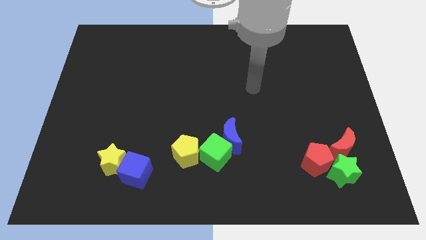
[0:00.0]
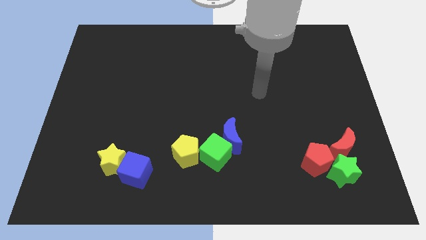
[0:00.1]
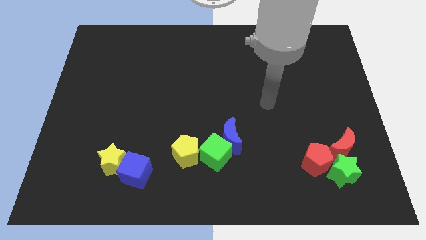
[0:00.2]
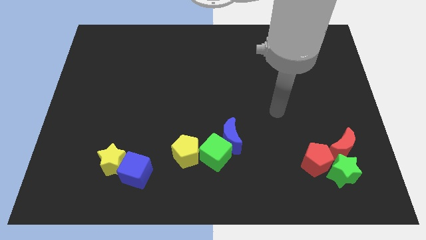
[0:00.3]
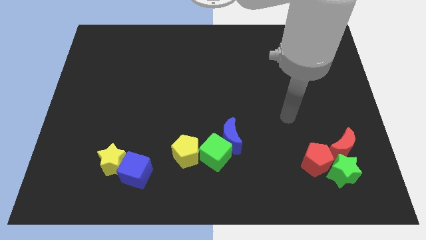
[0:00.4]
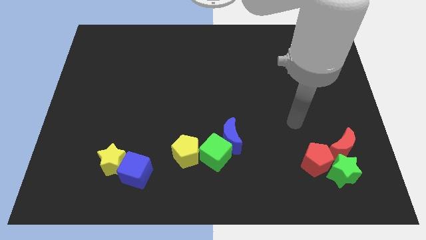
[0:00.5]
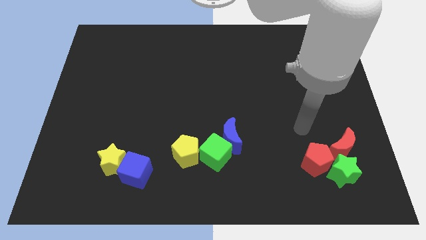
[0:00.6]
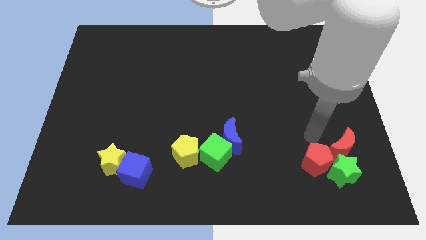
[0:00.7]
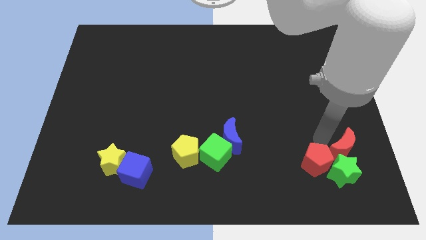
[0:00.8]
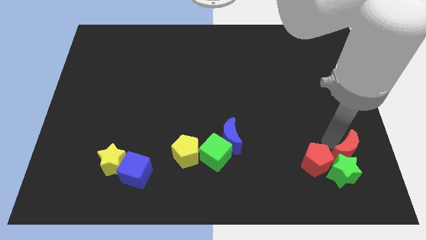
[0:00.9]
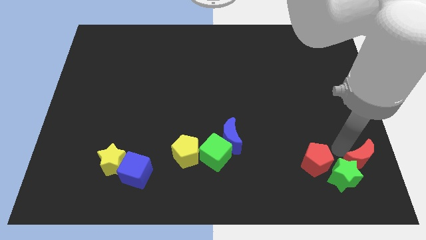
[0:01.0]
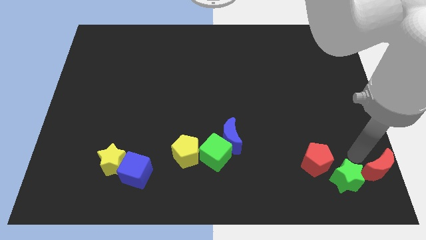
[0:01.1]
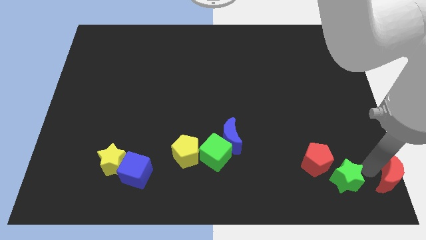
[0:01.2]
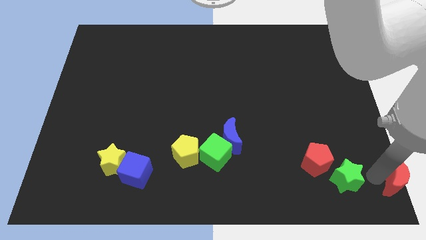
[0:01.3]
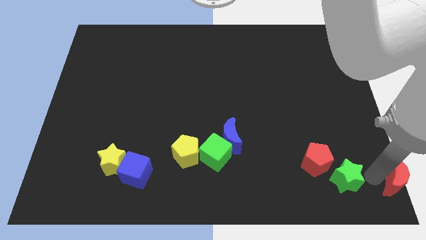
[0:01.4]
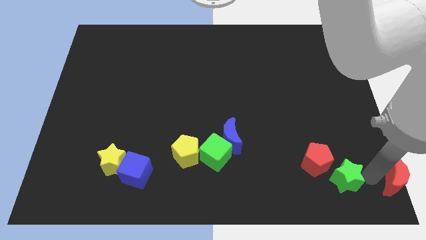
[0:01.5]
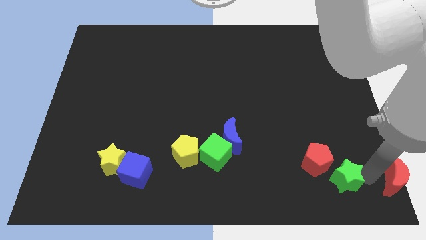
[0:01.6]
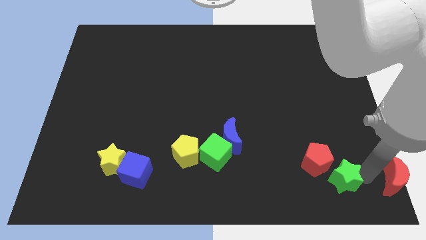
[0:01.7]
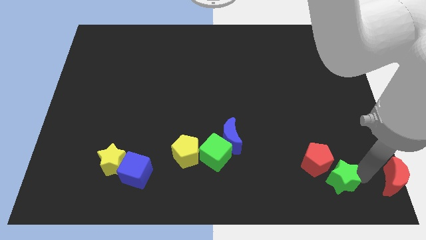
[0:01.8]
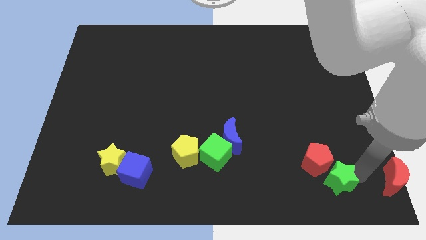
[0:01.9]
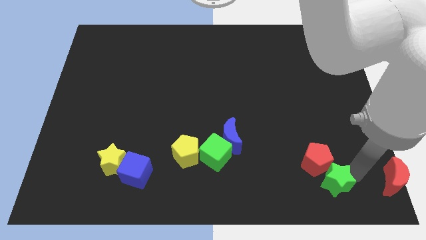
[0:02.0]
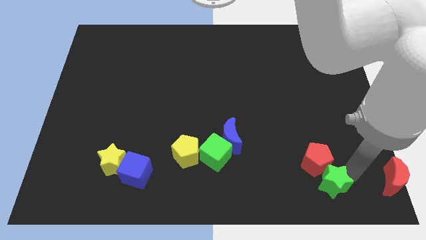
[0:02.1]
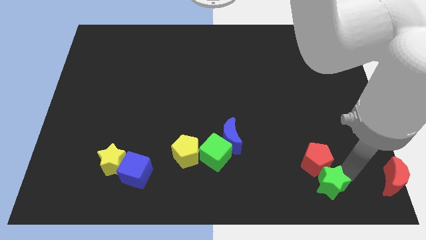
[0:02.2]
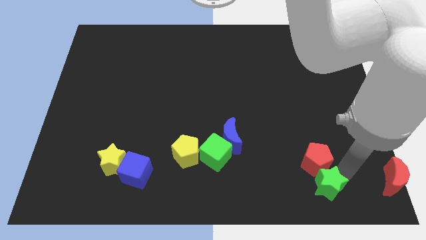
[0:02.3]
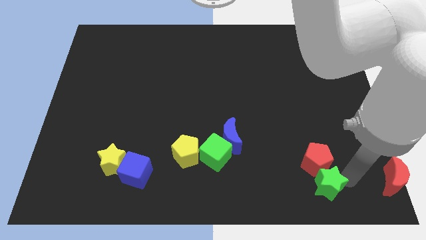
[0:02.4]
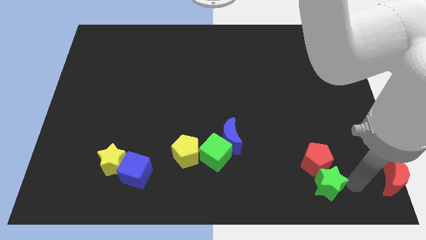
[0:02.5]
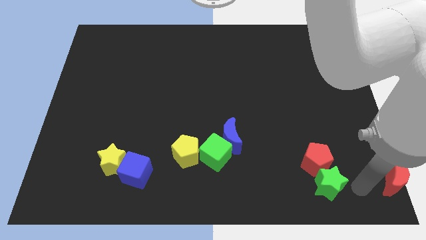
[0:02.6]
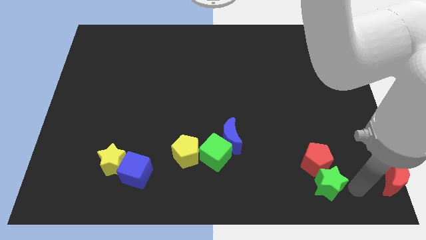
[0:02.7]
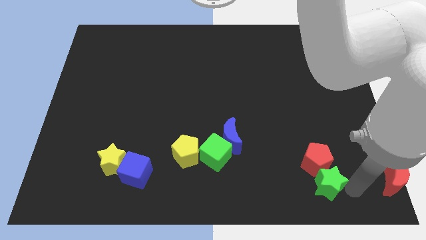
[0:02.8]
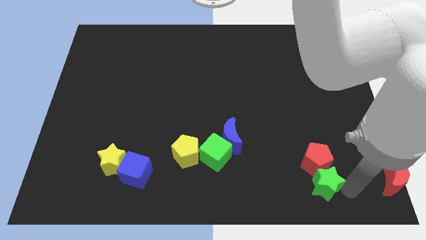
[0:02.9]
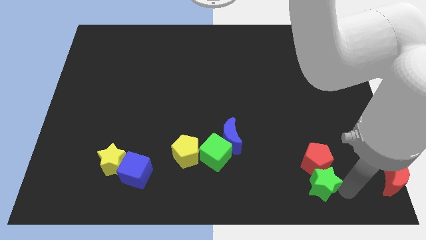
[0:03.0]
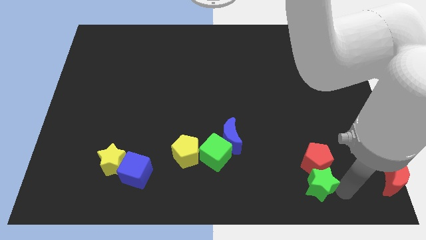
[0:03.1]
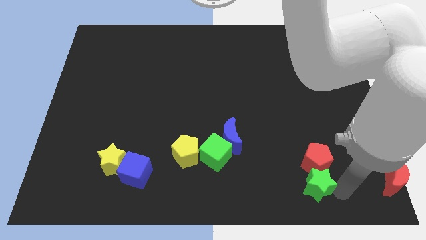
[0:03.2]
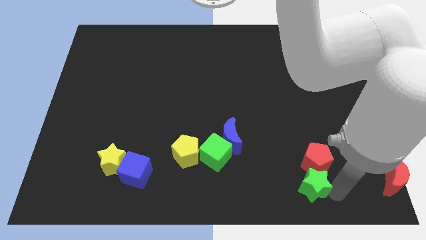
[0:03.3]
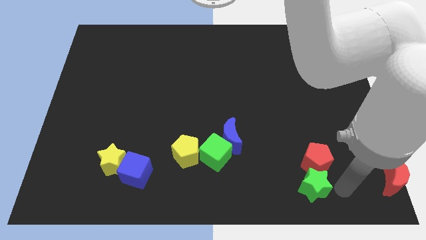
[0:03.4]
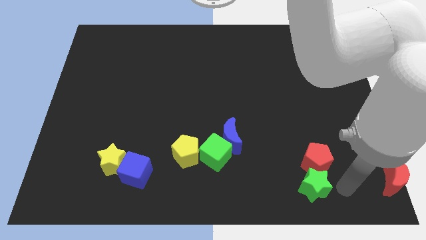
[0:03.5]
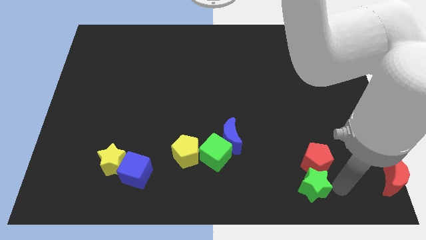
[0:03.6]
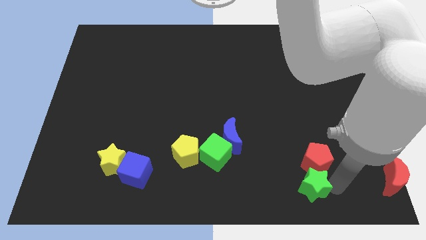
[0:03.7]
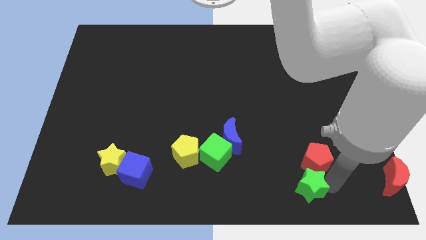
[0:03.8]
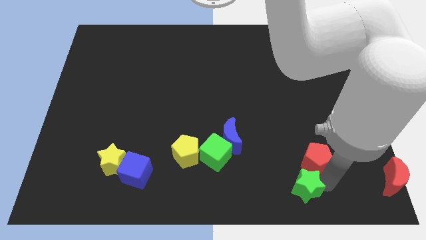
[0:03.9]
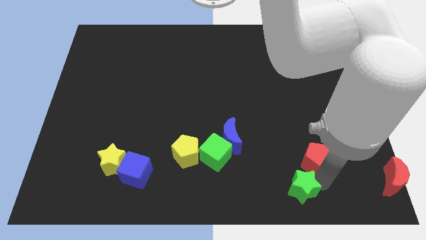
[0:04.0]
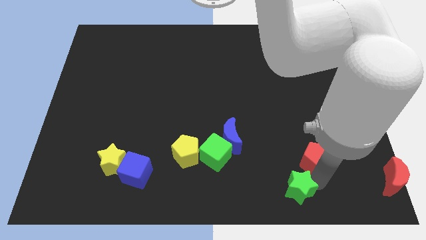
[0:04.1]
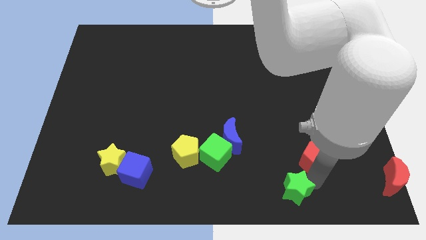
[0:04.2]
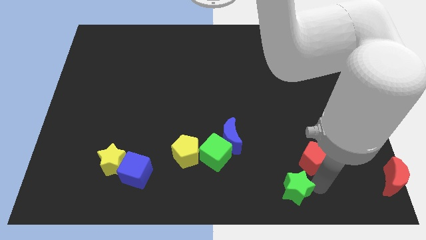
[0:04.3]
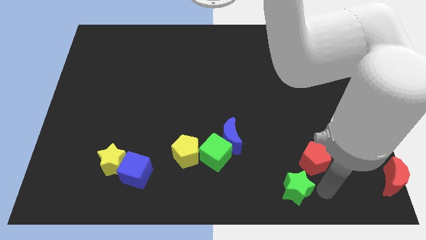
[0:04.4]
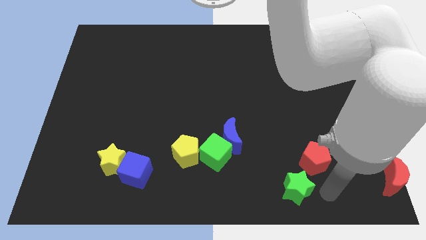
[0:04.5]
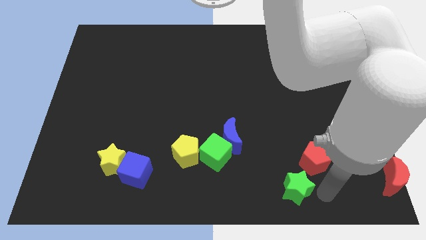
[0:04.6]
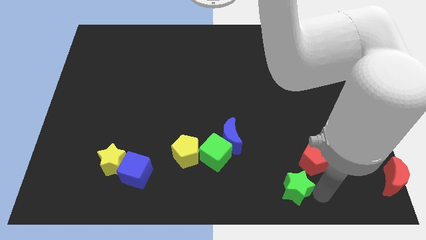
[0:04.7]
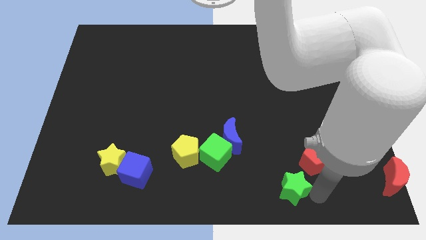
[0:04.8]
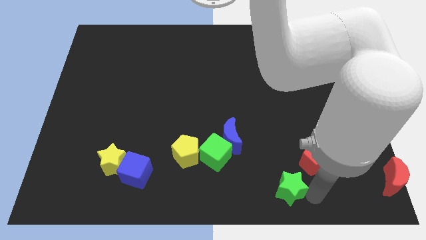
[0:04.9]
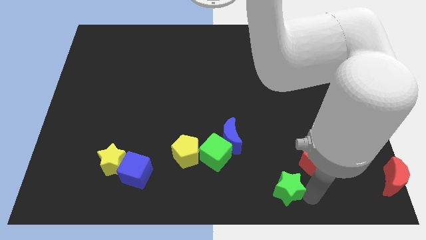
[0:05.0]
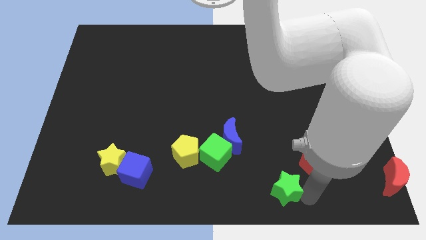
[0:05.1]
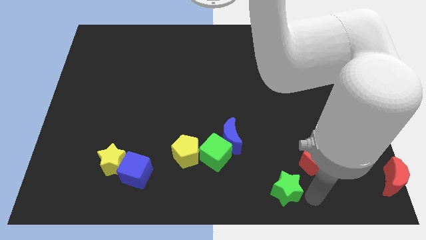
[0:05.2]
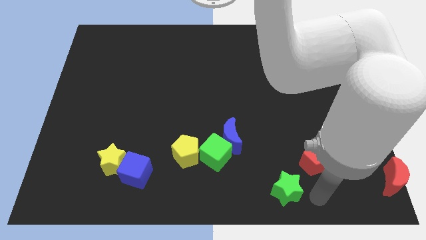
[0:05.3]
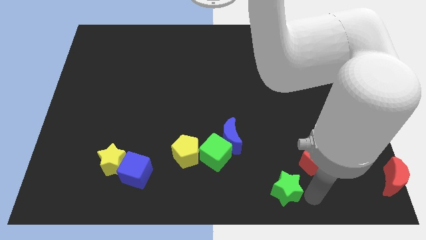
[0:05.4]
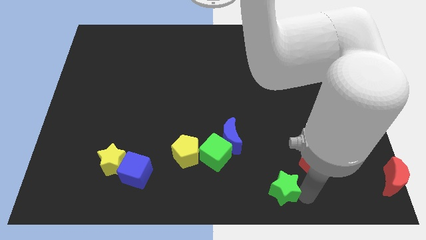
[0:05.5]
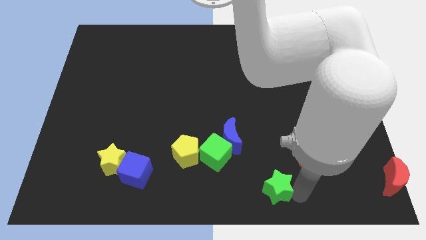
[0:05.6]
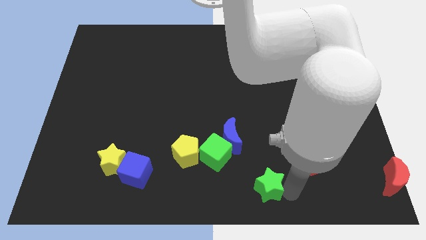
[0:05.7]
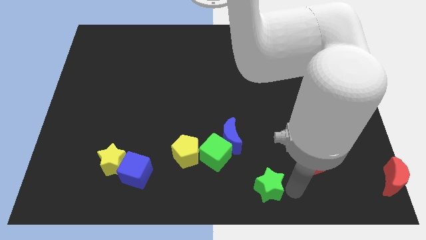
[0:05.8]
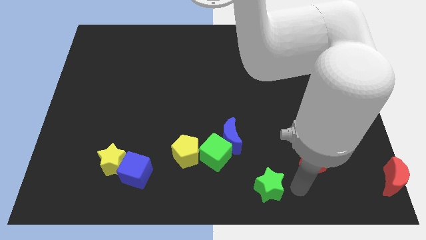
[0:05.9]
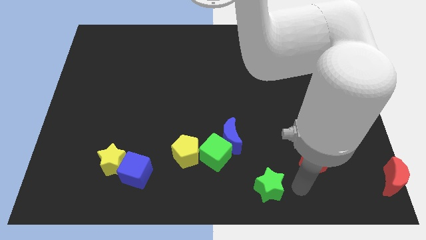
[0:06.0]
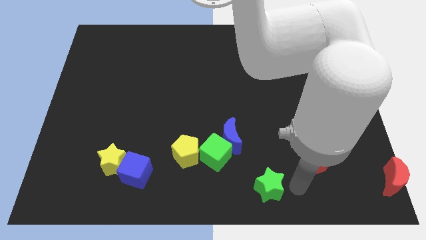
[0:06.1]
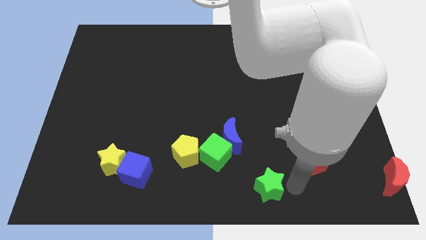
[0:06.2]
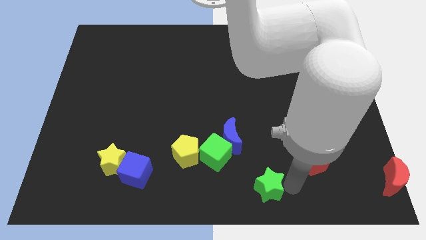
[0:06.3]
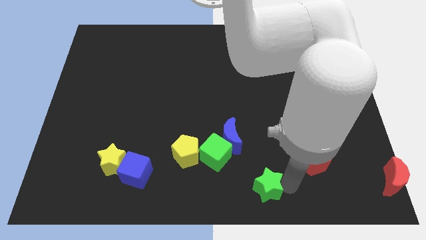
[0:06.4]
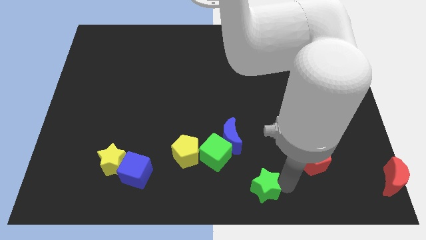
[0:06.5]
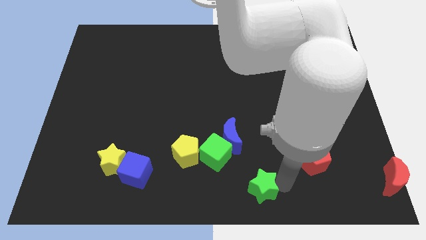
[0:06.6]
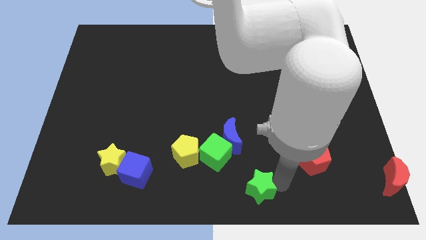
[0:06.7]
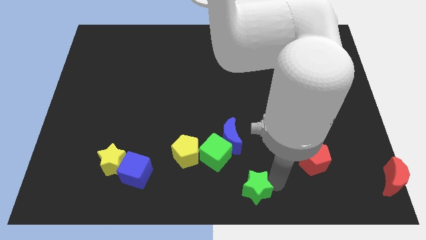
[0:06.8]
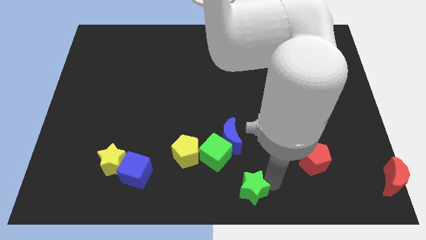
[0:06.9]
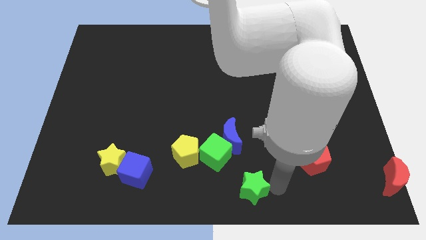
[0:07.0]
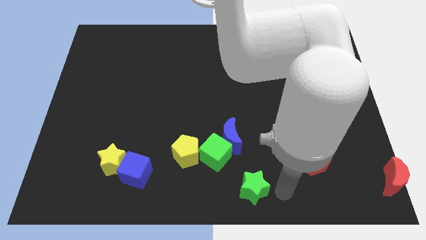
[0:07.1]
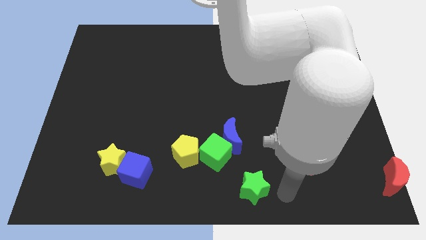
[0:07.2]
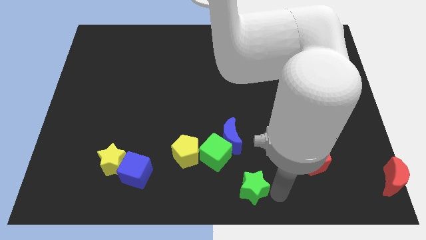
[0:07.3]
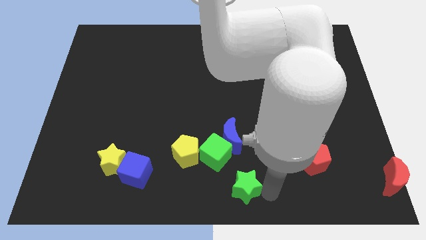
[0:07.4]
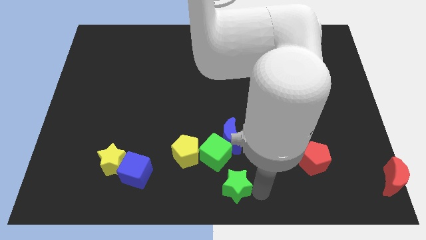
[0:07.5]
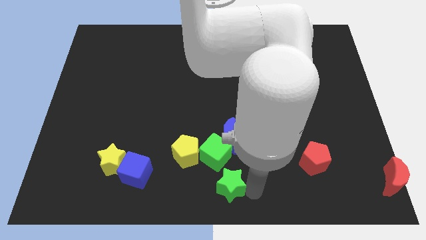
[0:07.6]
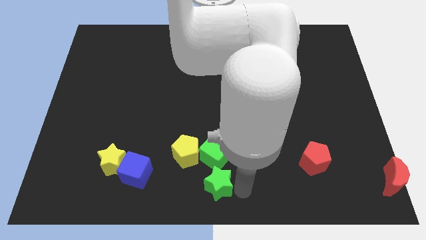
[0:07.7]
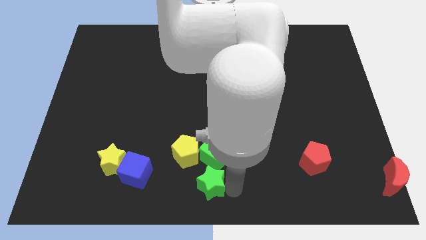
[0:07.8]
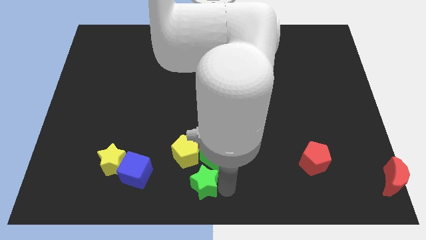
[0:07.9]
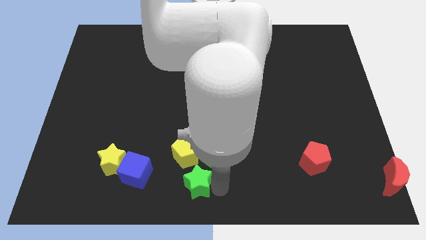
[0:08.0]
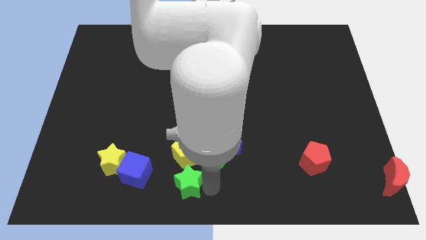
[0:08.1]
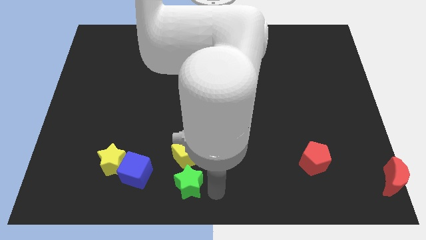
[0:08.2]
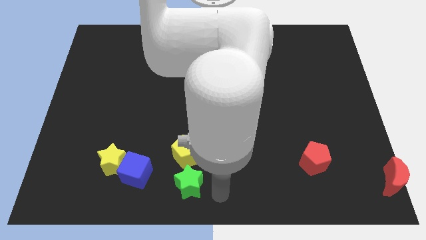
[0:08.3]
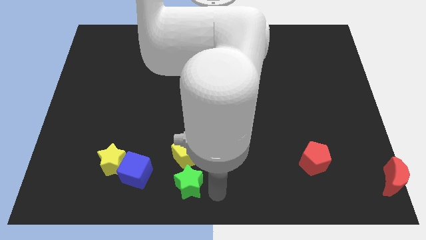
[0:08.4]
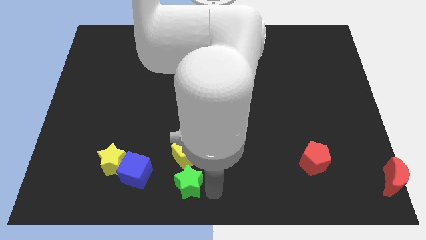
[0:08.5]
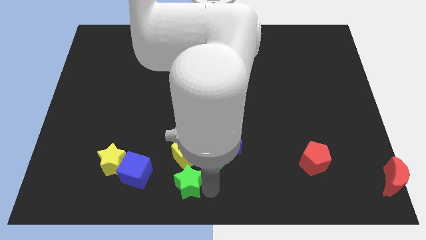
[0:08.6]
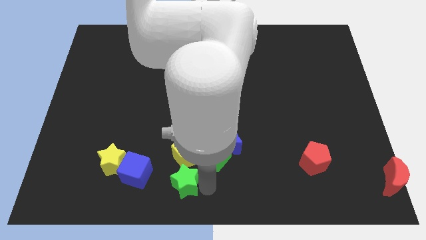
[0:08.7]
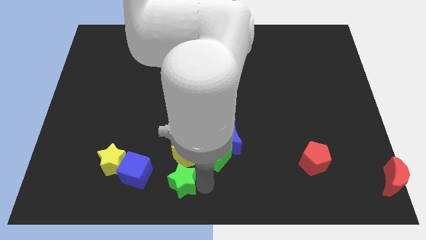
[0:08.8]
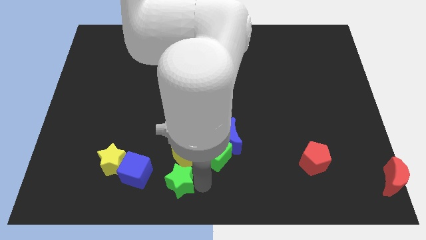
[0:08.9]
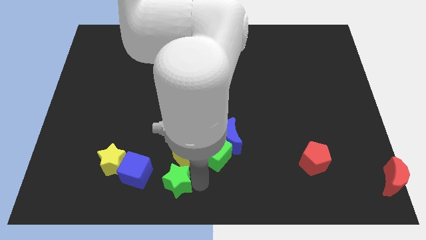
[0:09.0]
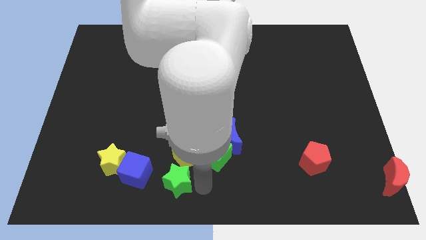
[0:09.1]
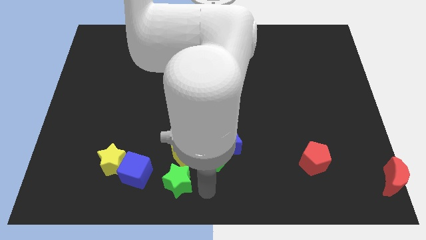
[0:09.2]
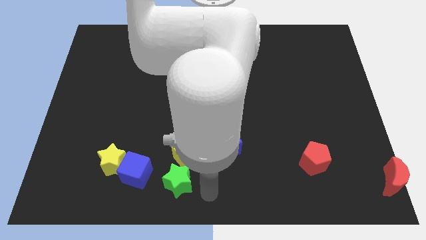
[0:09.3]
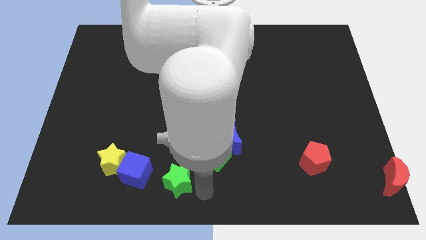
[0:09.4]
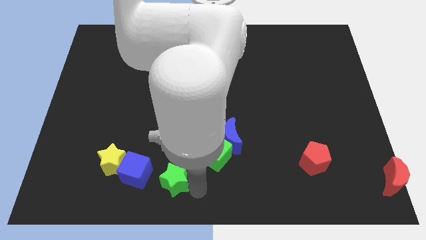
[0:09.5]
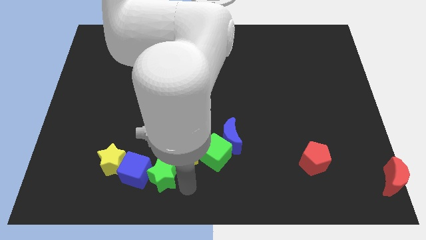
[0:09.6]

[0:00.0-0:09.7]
slide the green star next to the blue cube
